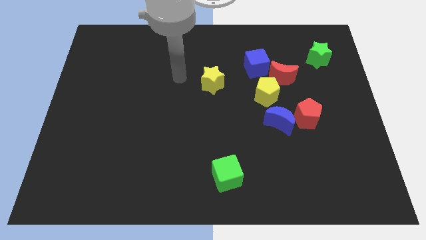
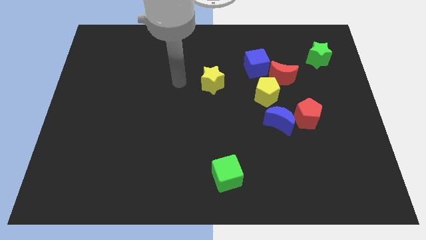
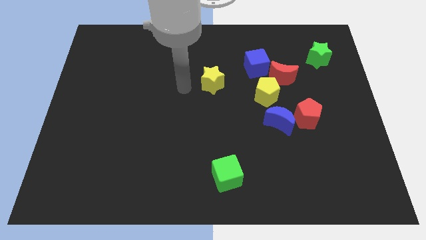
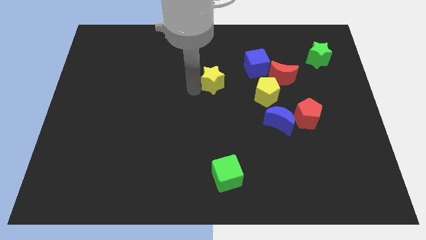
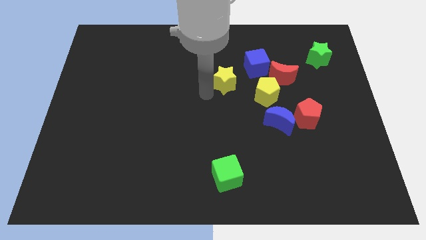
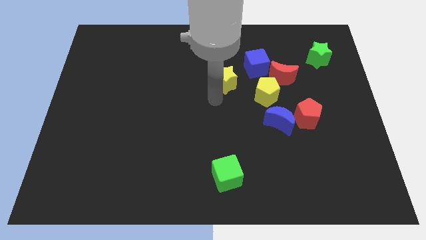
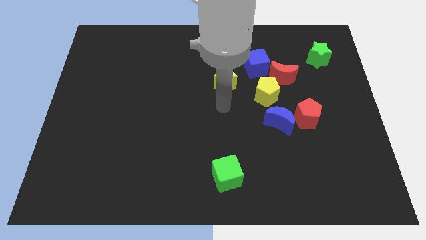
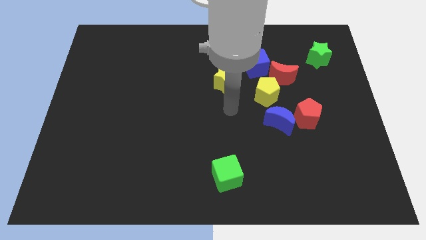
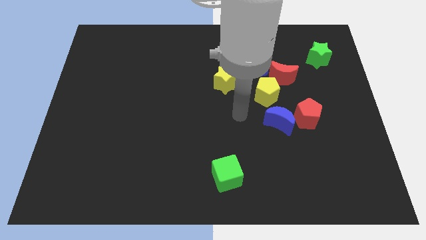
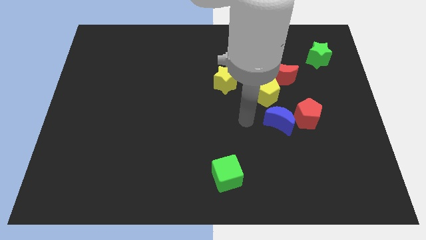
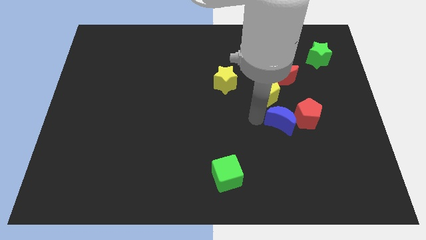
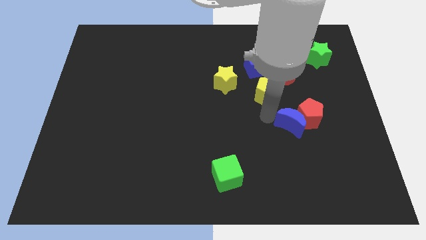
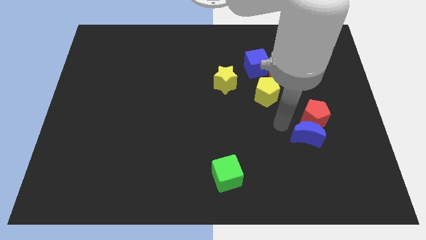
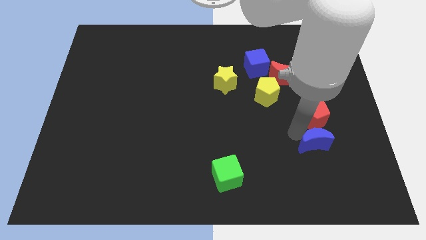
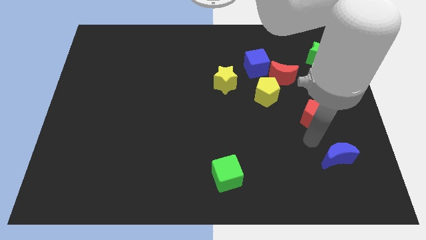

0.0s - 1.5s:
separate the red pentagon from the blue moon

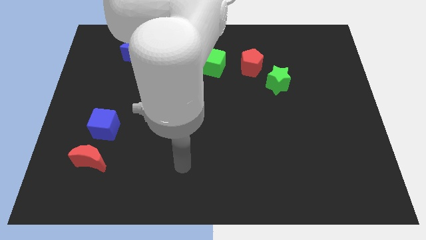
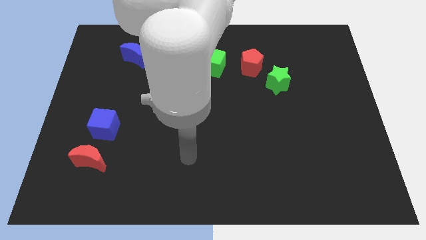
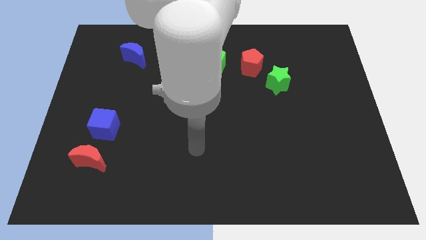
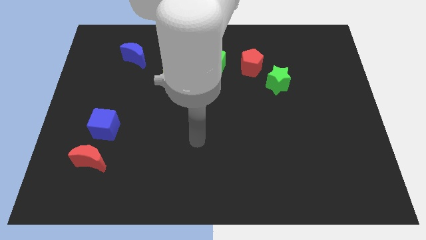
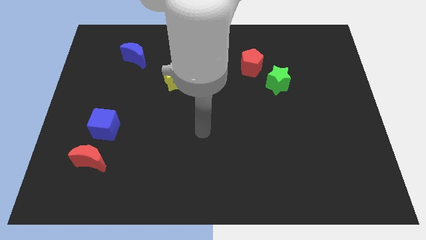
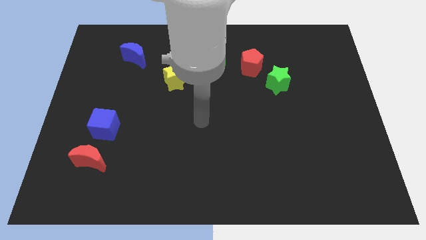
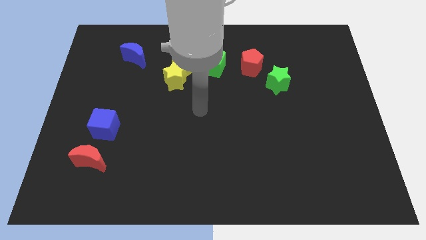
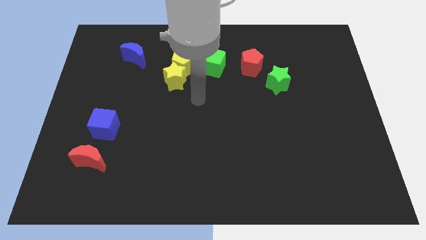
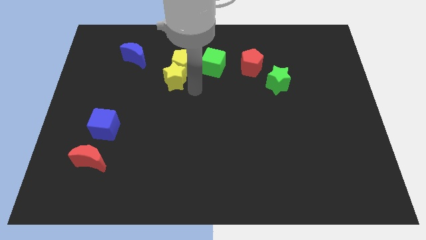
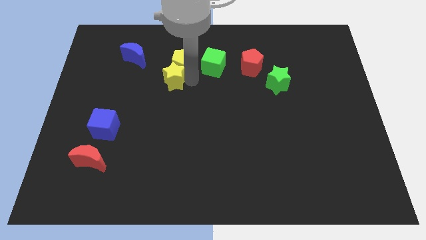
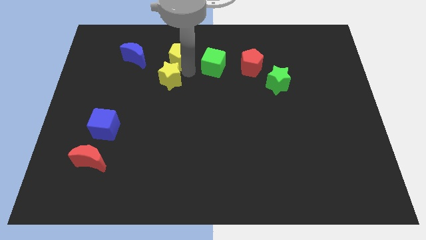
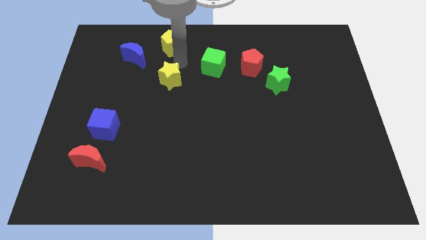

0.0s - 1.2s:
separate the yellow star from the yellow pentagon

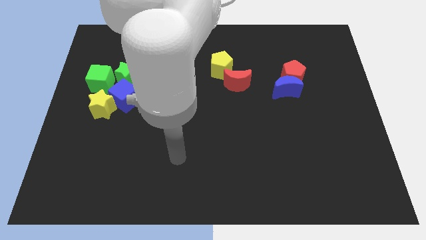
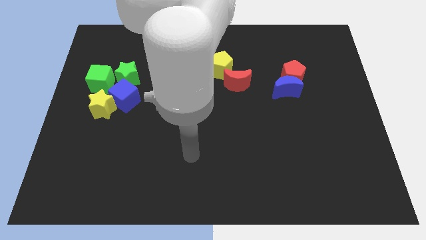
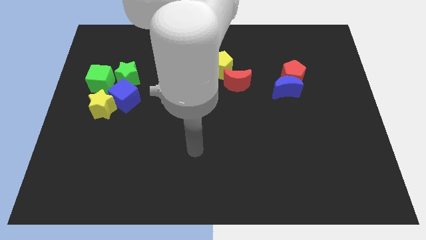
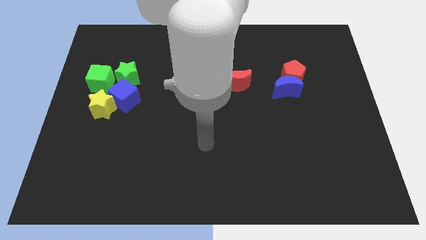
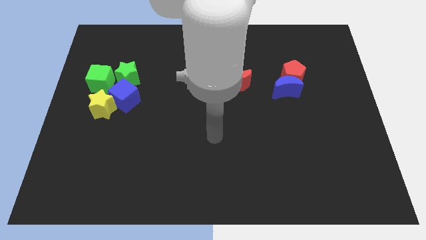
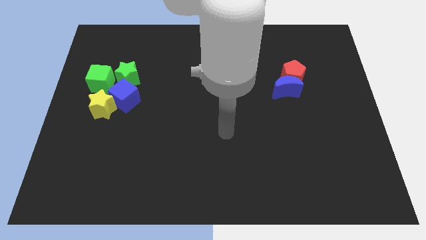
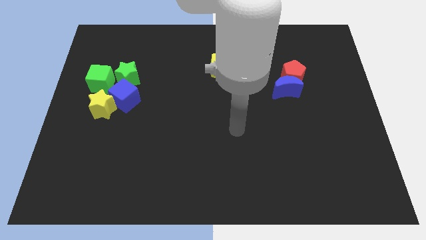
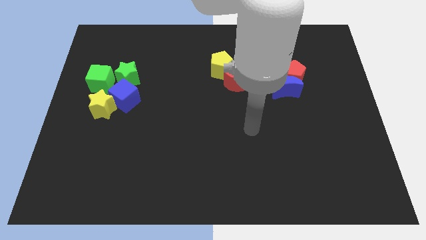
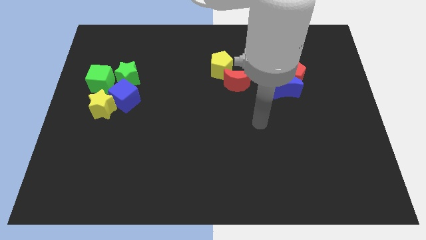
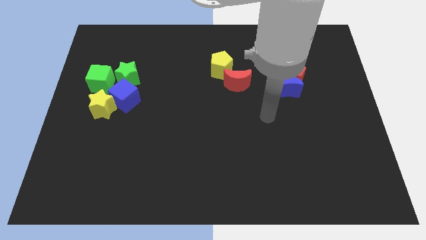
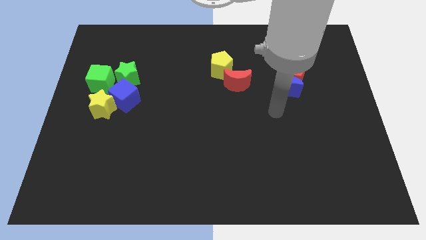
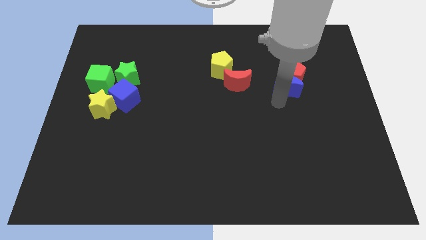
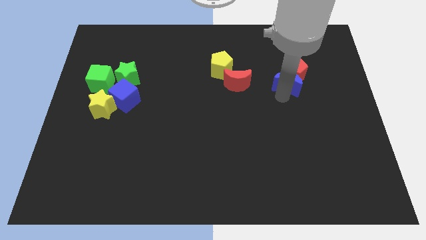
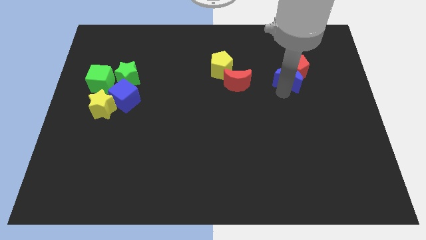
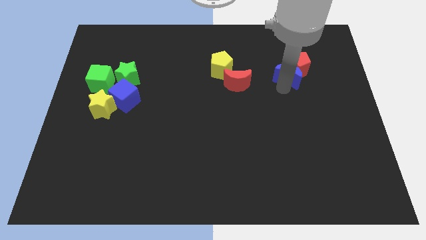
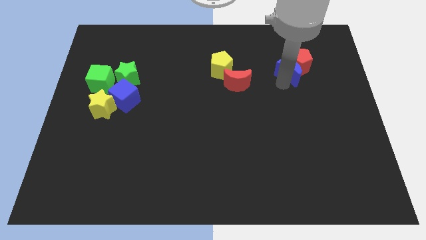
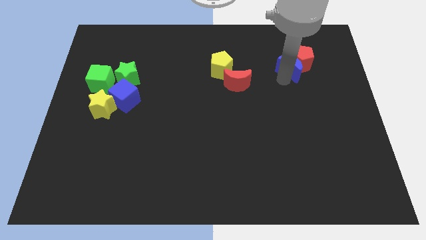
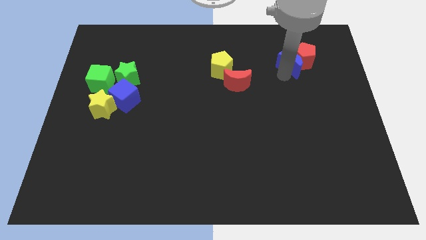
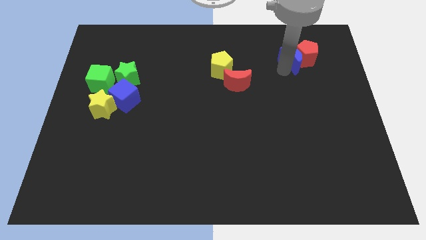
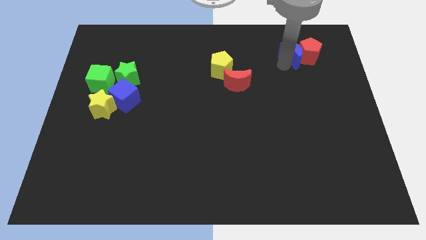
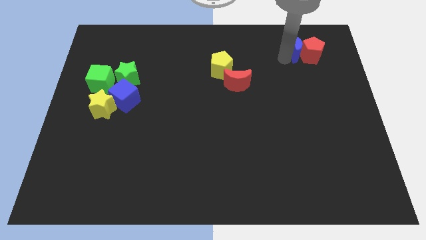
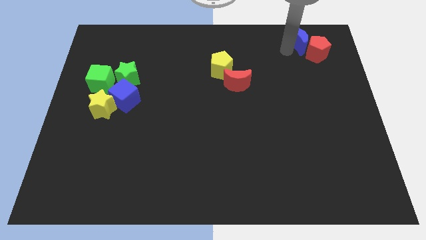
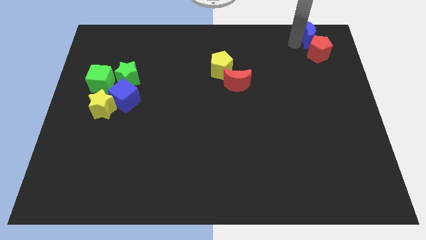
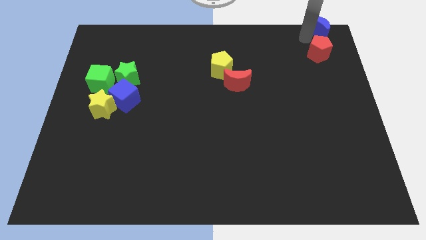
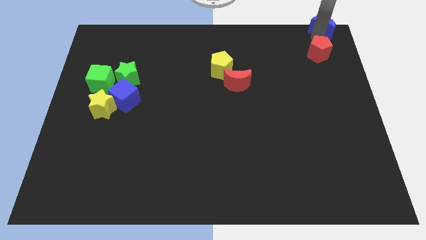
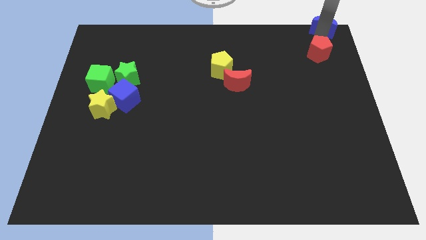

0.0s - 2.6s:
move the red pentagon away from the blue moon

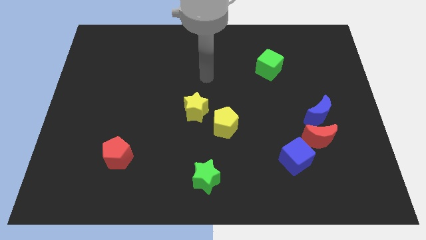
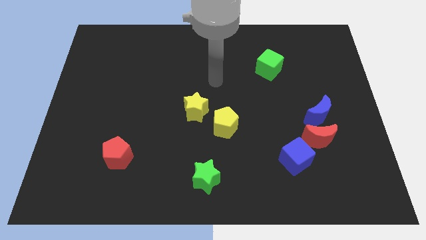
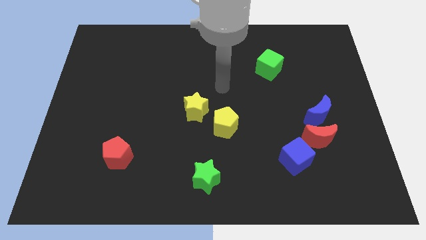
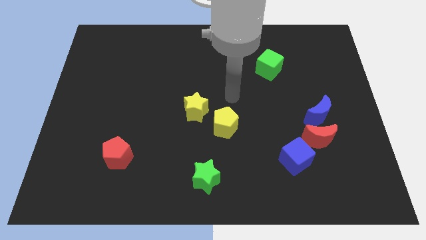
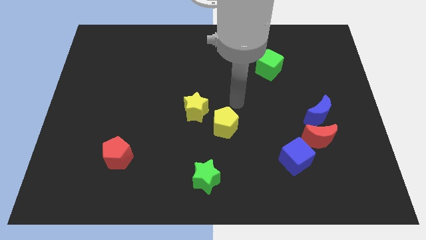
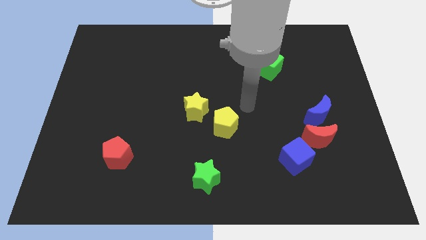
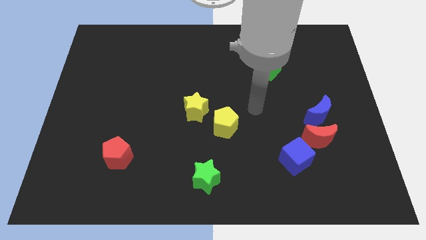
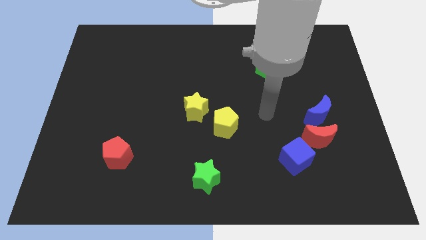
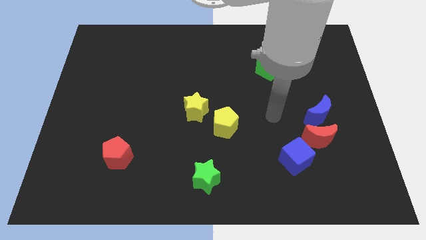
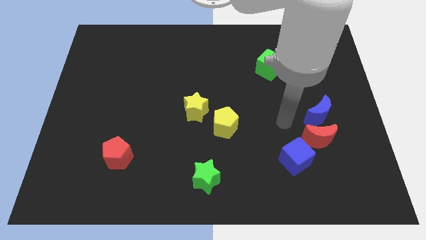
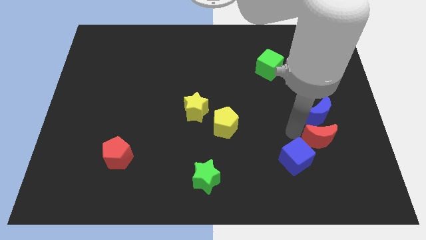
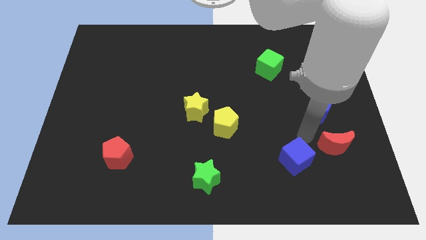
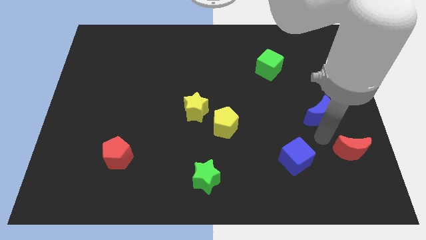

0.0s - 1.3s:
separate the blue moon from the red moon

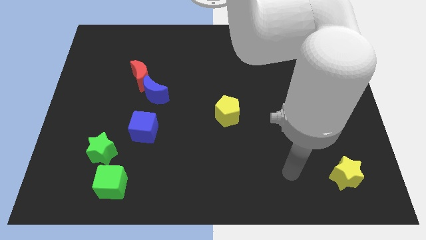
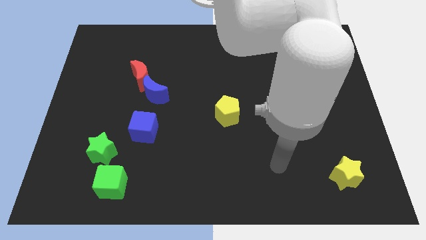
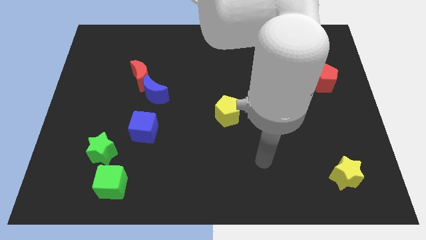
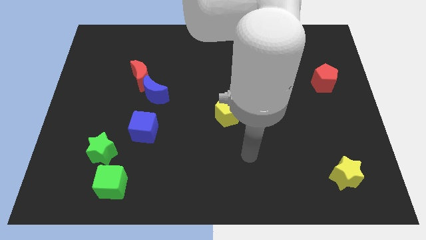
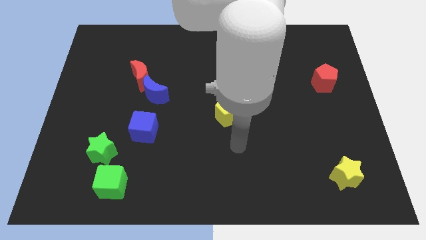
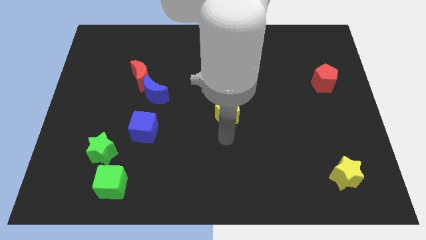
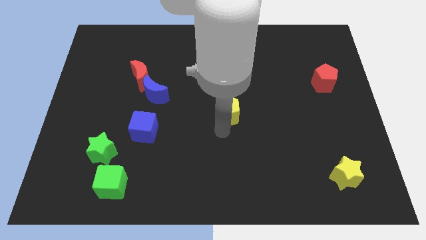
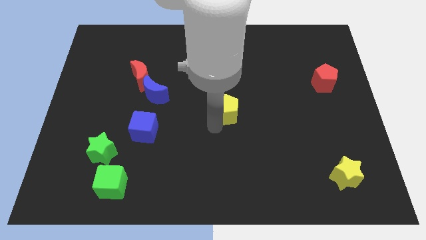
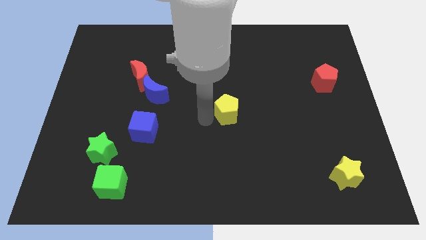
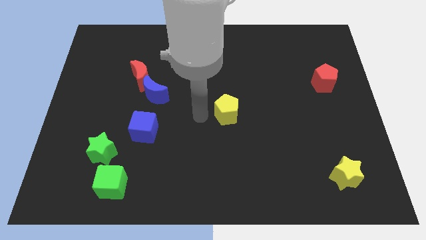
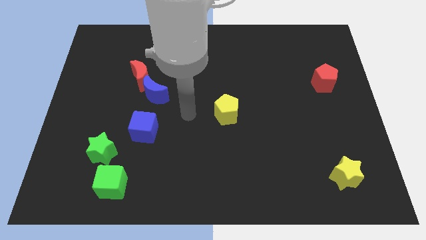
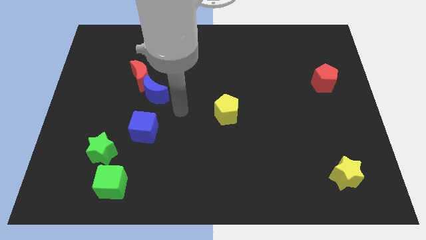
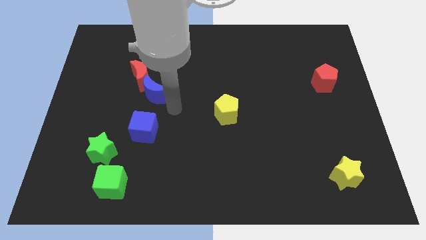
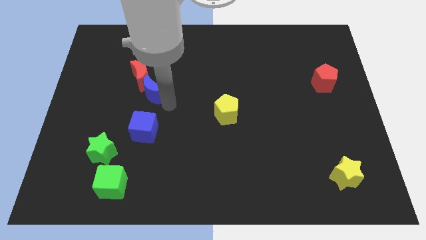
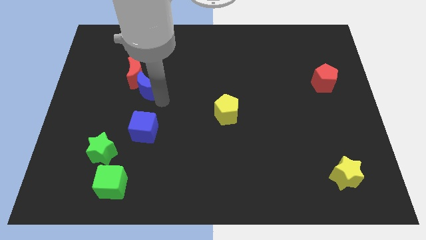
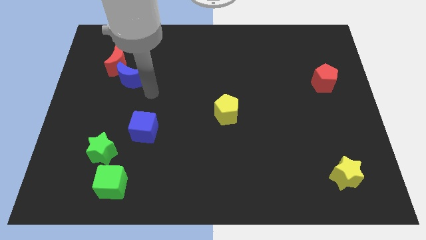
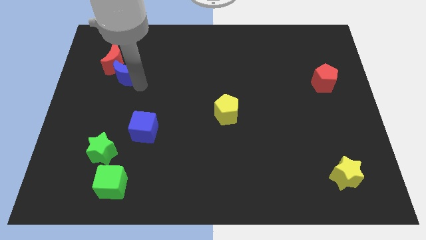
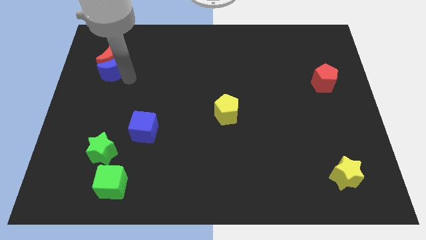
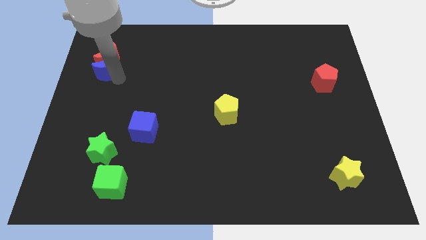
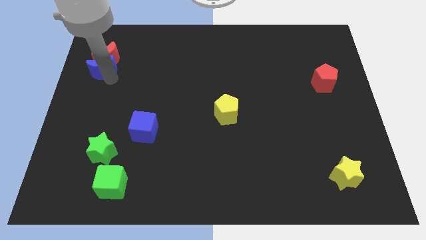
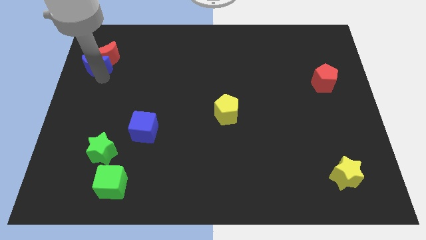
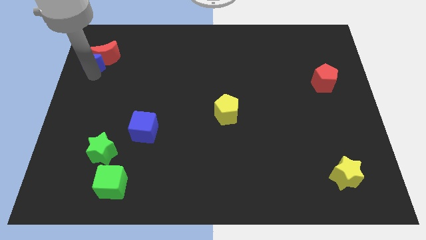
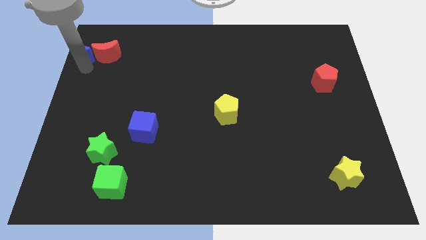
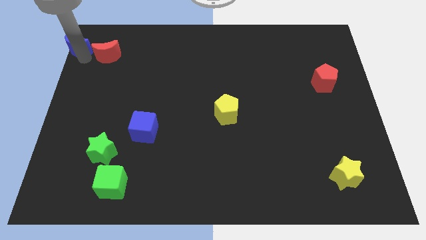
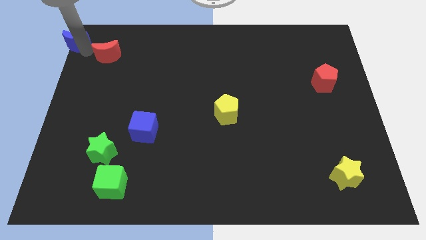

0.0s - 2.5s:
pull the red moon apart from the blue moon

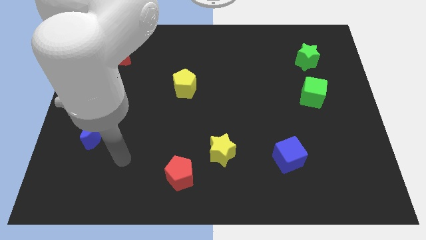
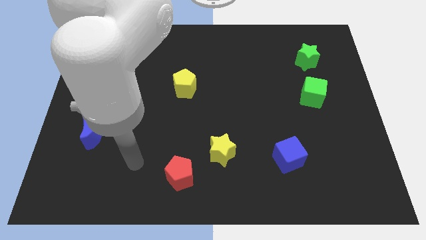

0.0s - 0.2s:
move the red pentagon away from the yellow star
